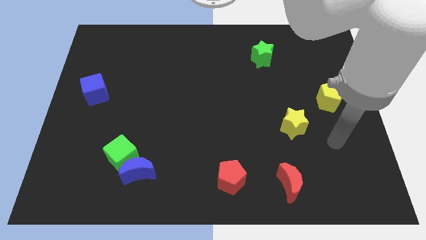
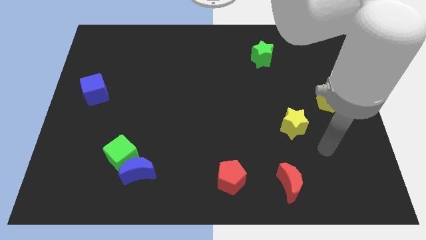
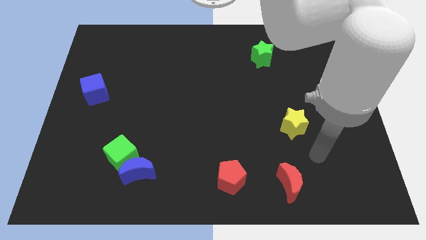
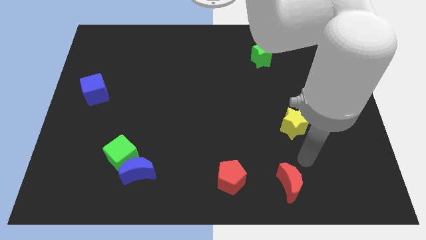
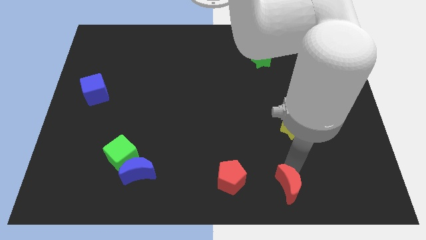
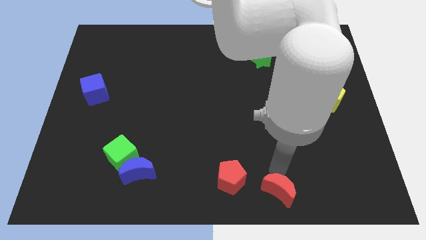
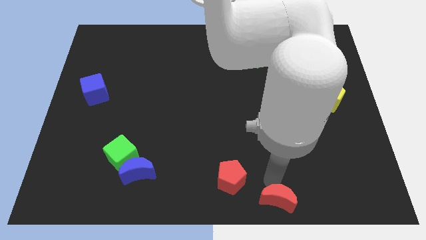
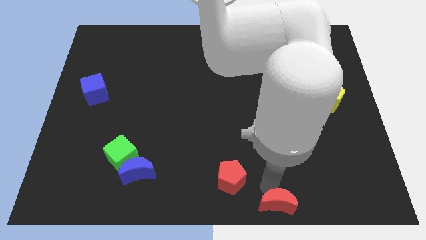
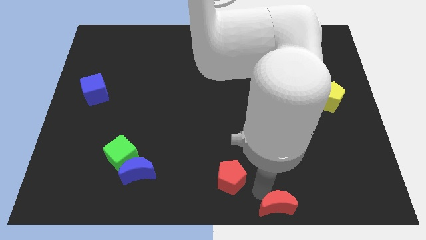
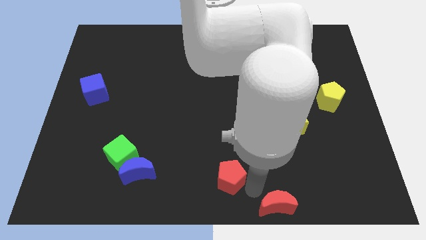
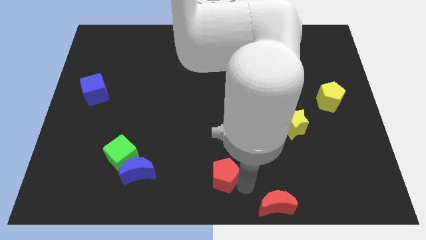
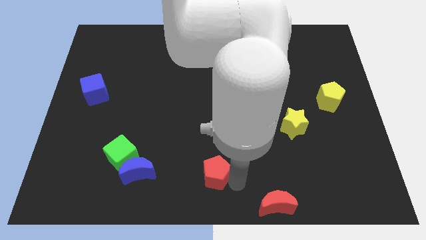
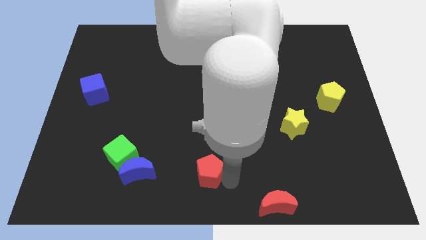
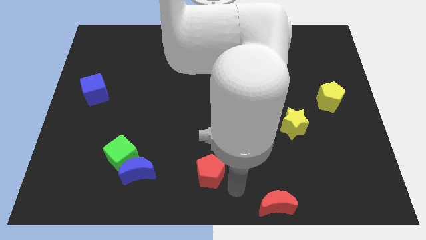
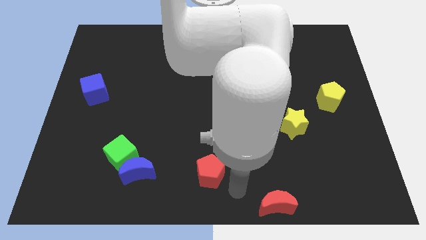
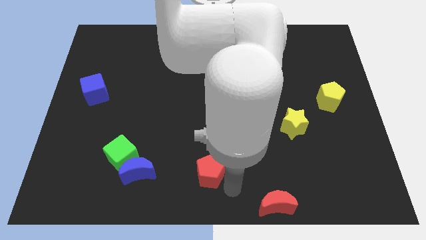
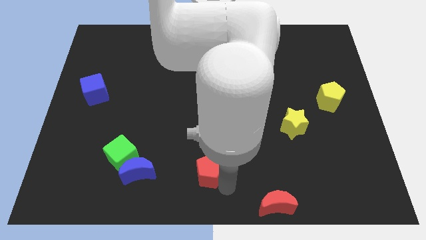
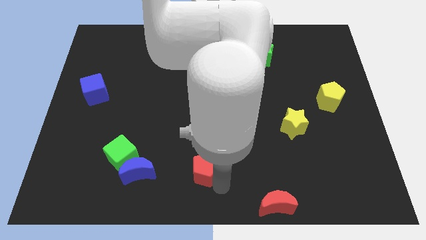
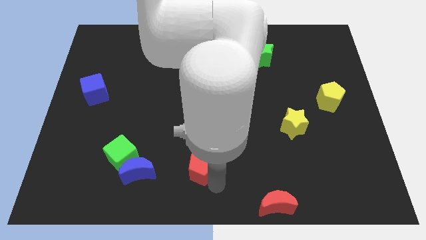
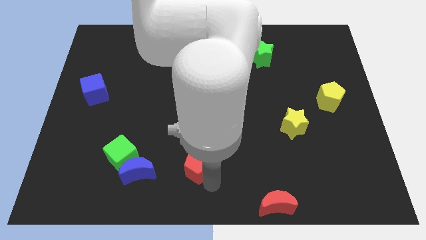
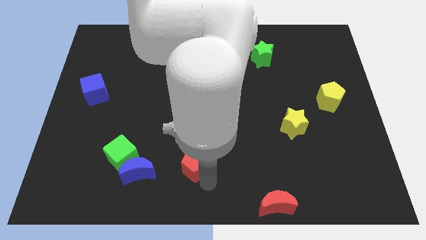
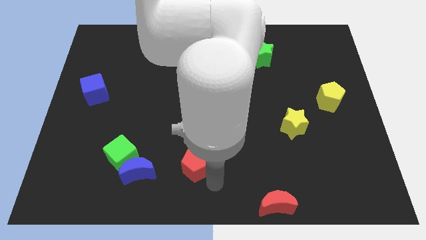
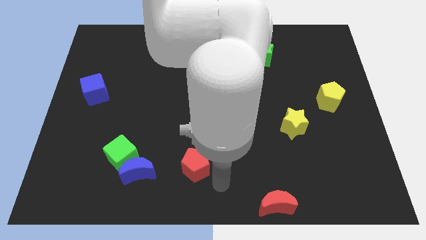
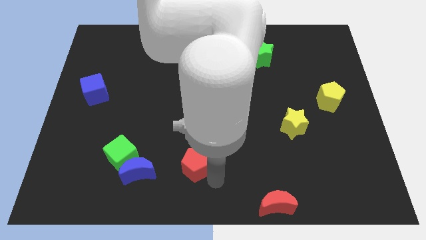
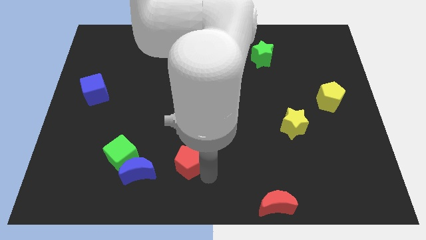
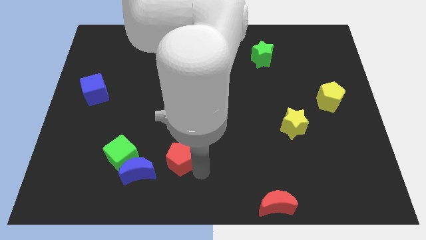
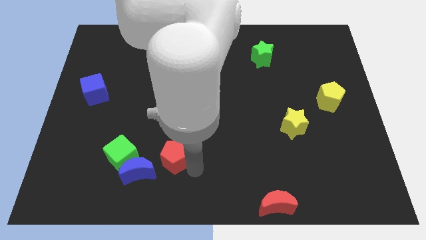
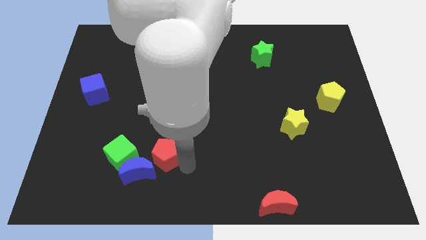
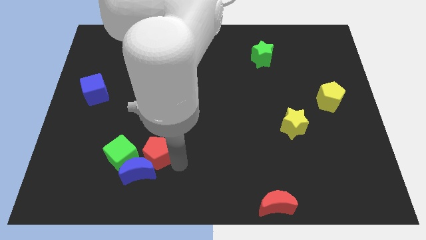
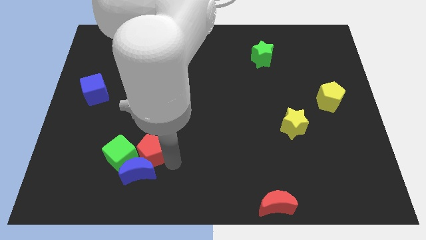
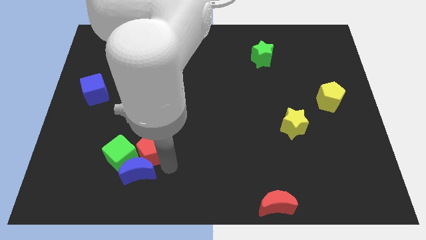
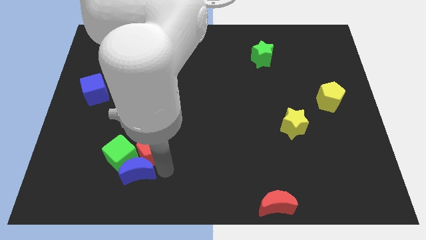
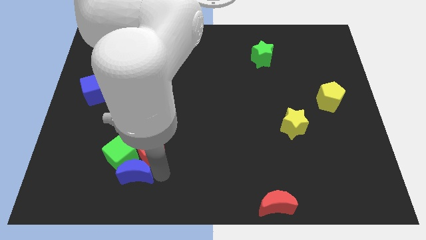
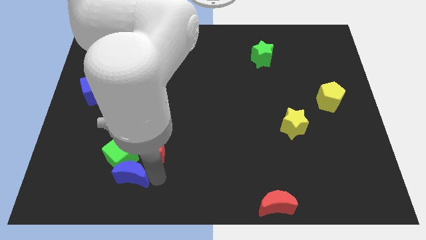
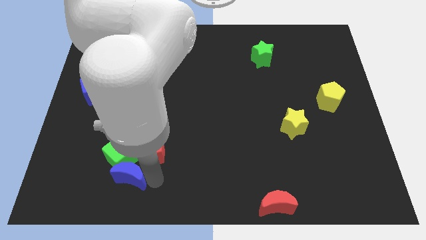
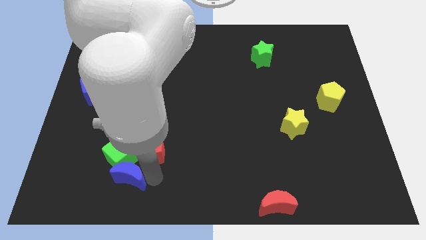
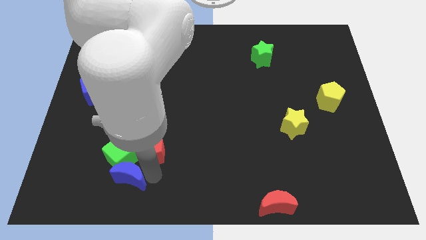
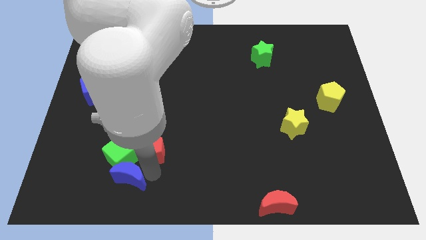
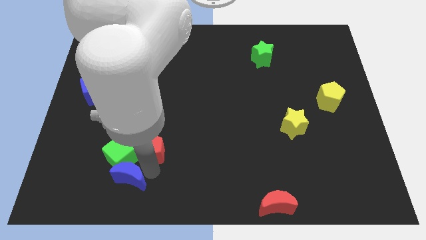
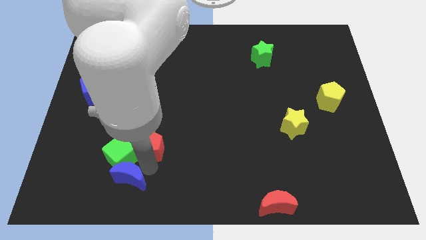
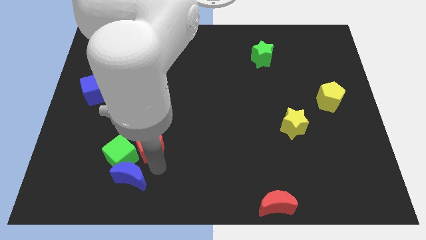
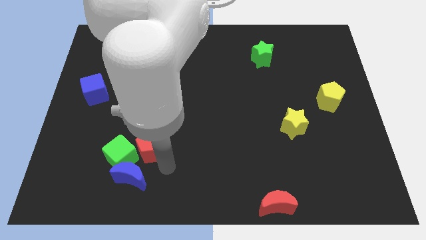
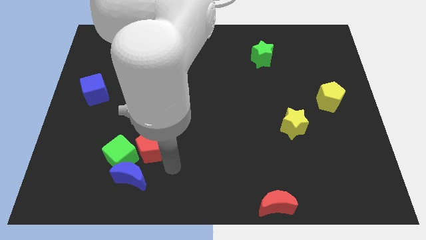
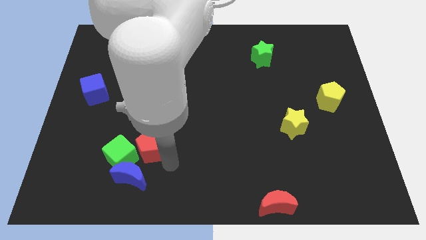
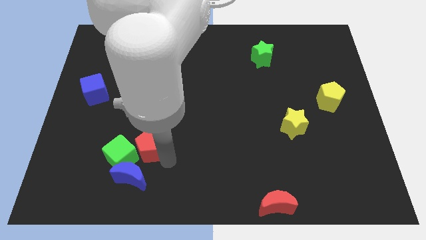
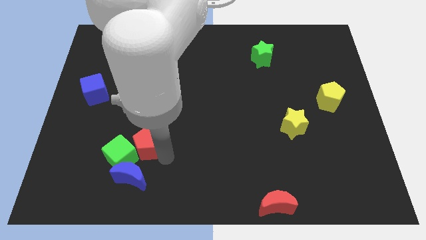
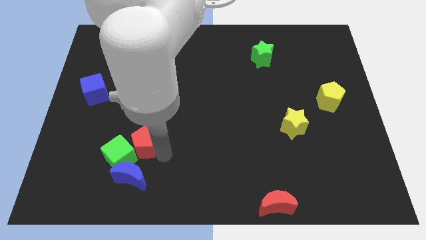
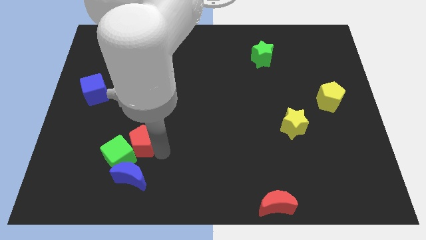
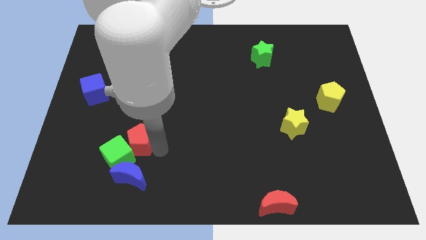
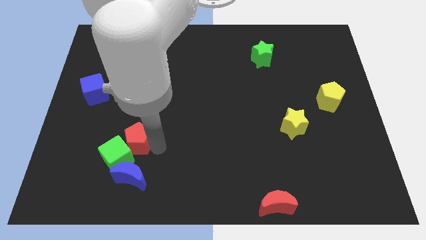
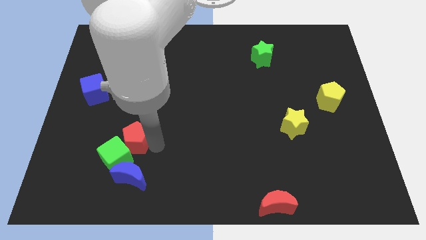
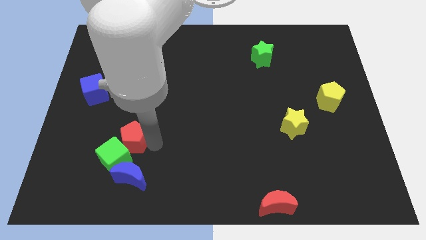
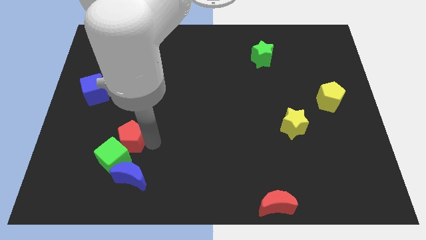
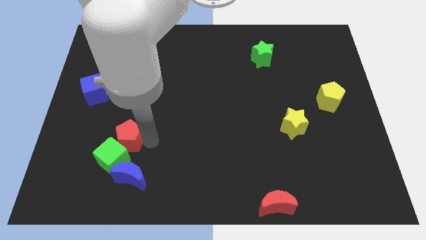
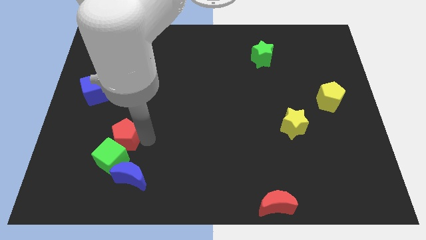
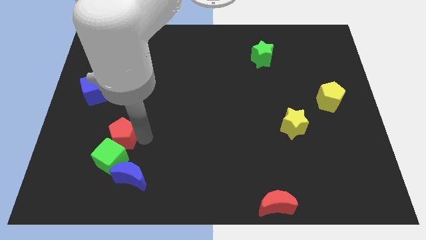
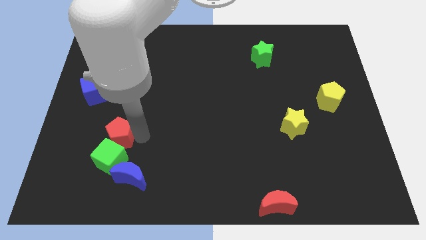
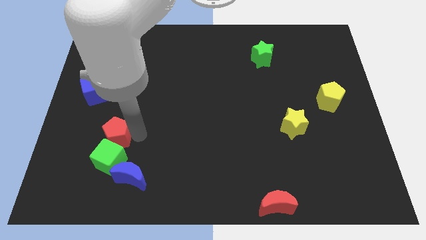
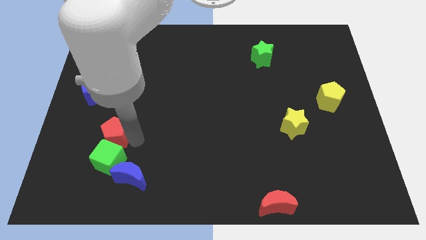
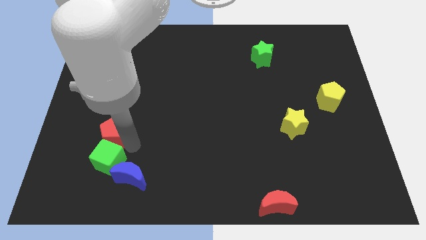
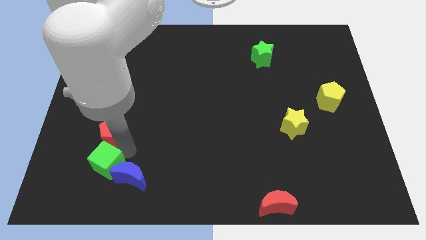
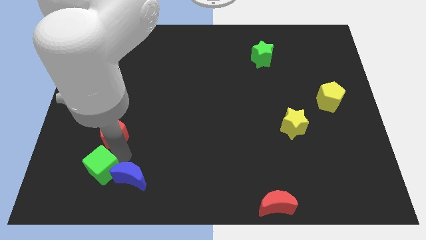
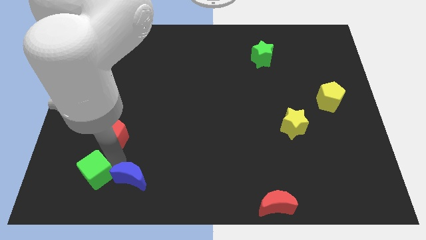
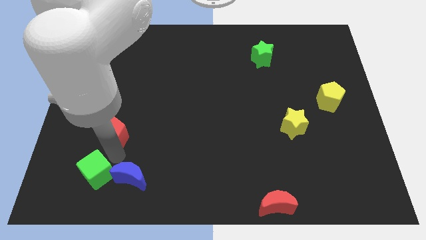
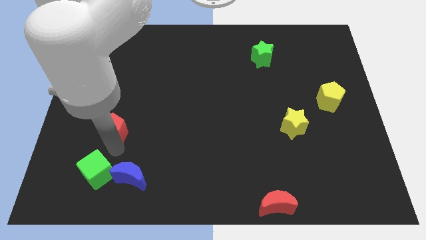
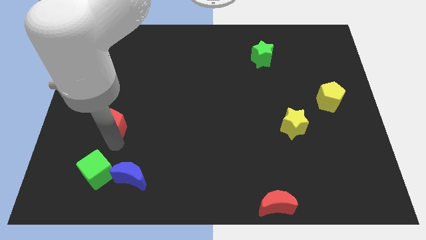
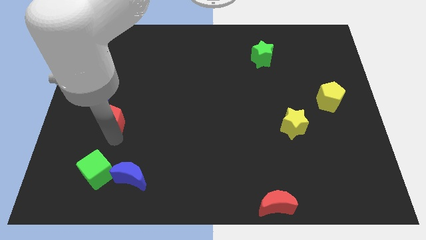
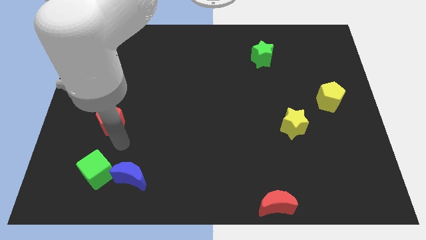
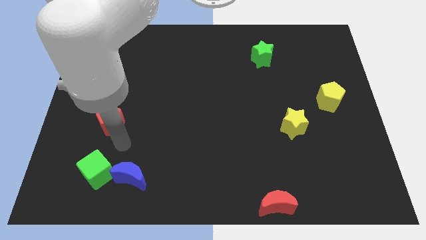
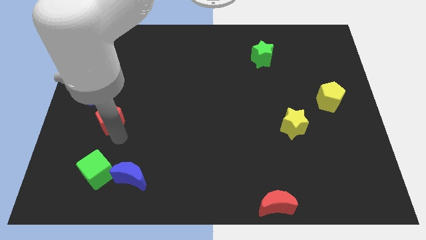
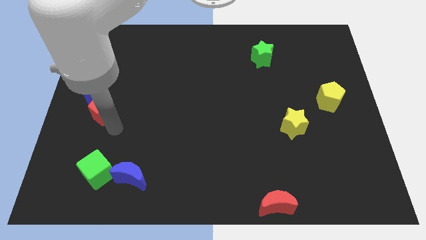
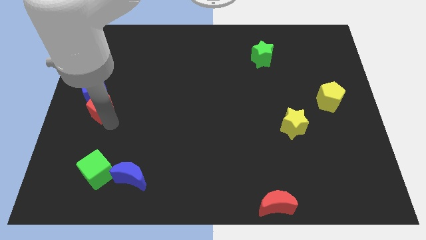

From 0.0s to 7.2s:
move the red pentagon close to the blue cube
